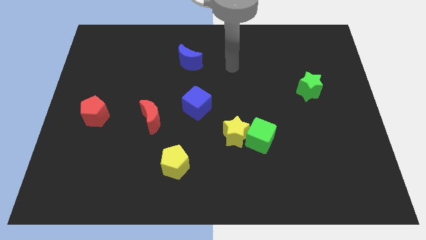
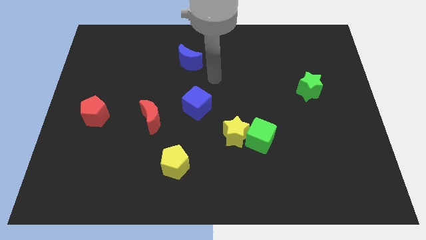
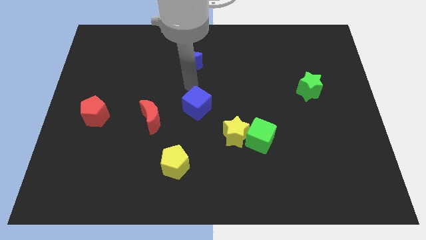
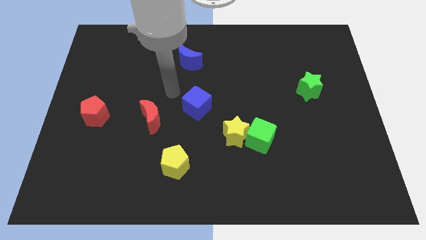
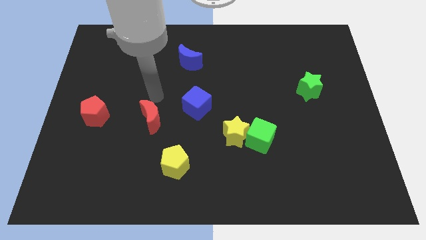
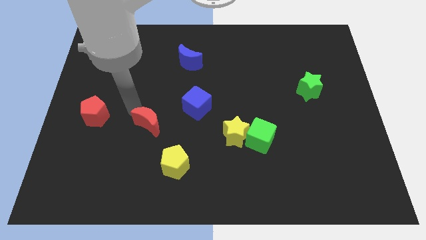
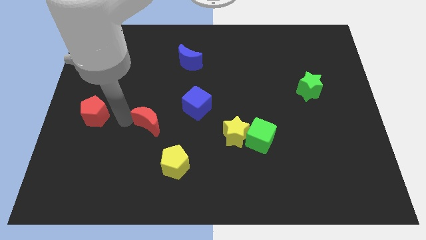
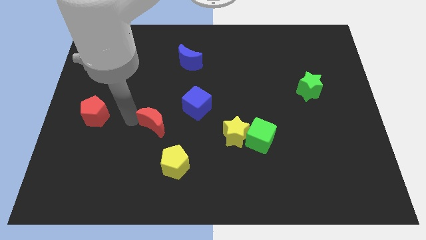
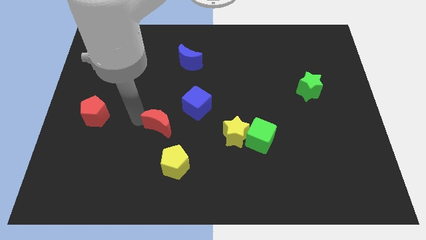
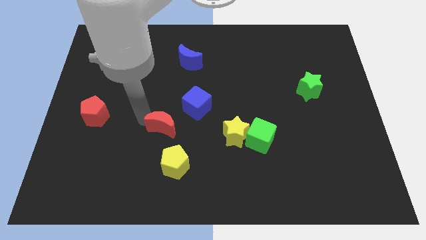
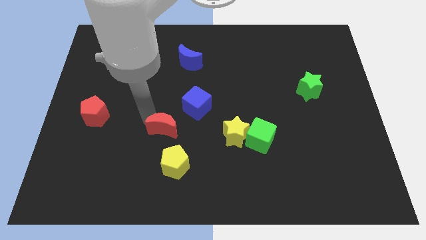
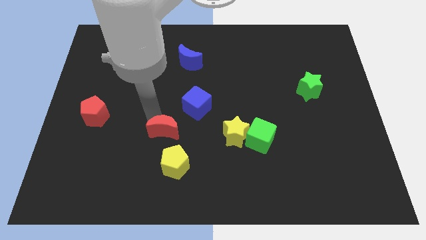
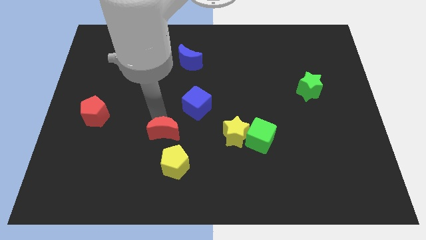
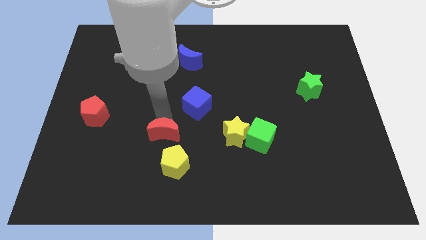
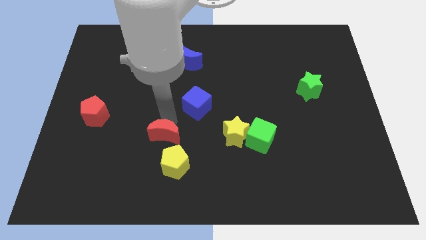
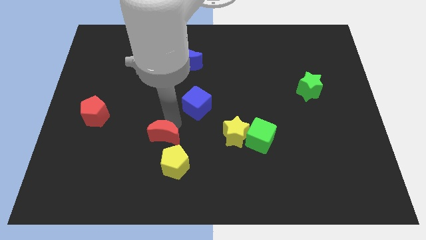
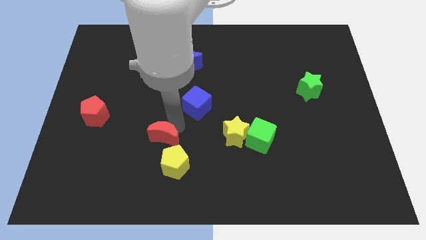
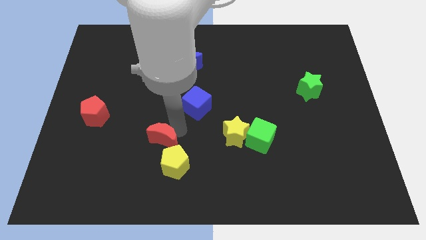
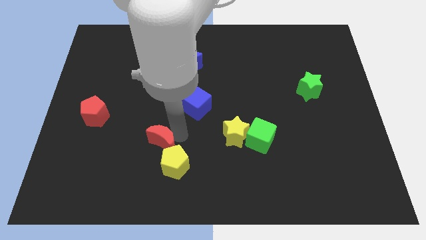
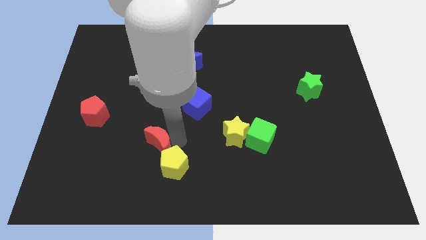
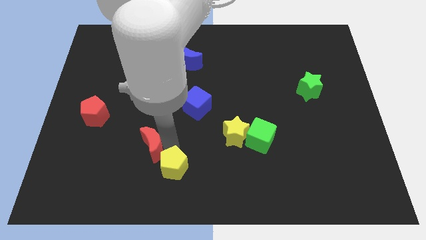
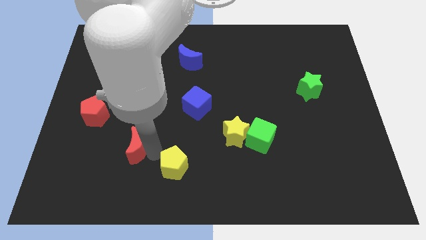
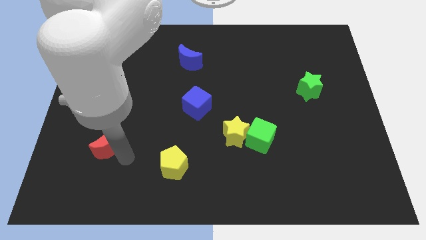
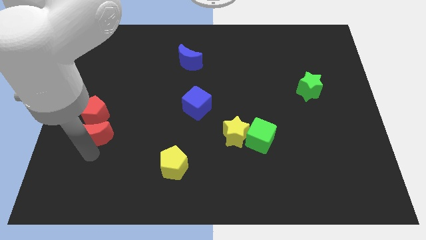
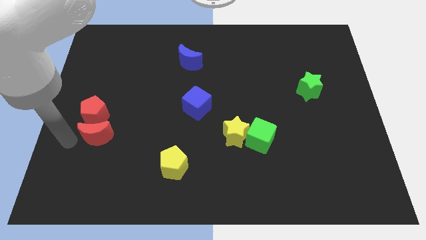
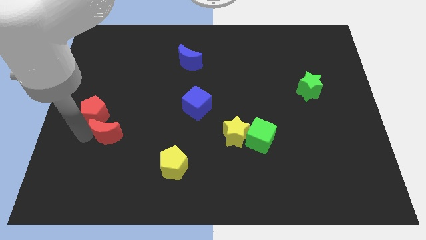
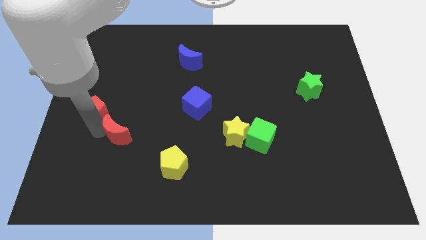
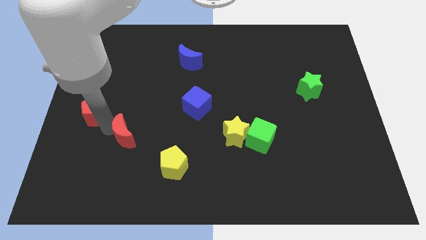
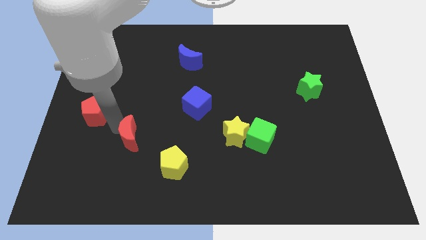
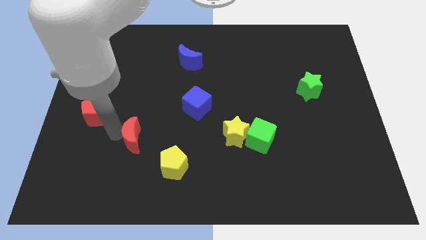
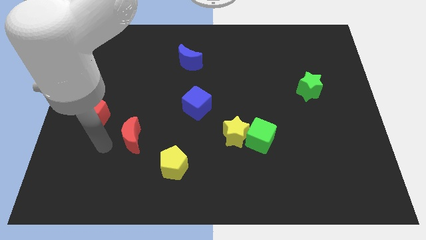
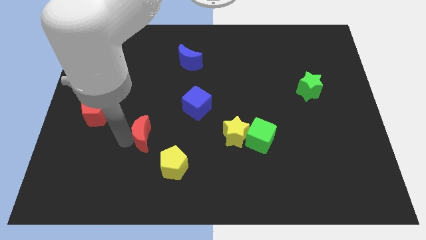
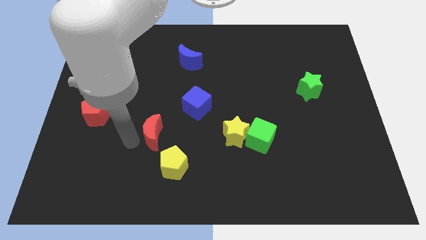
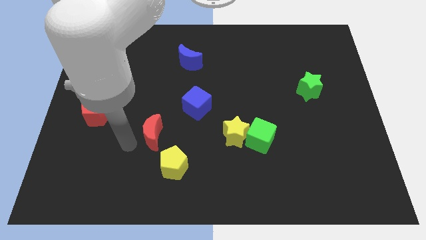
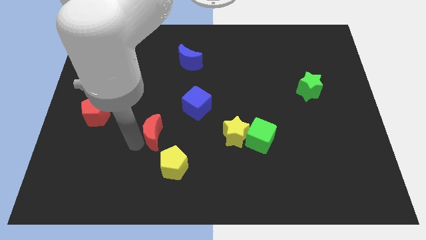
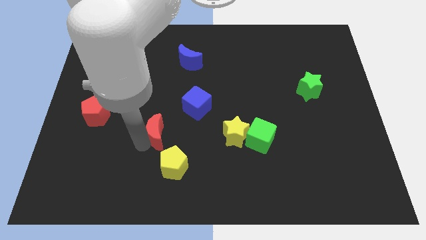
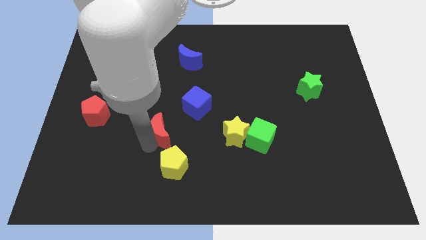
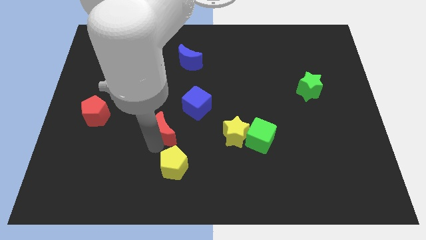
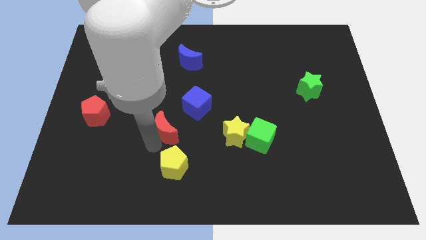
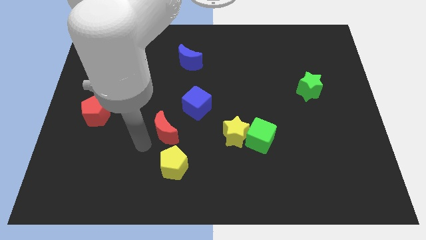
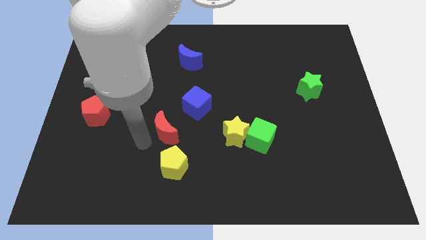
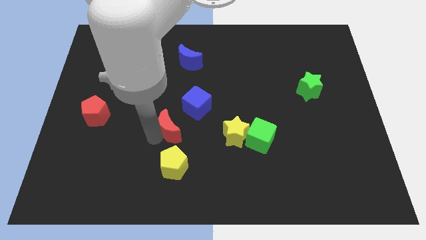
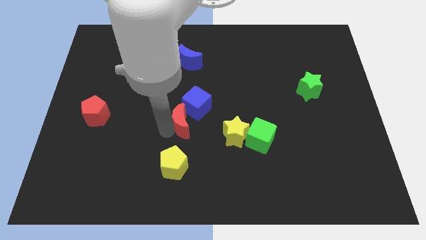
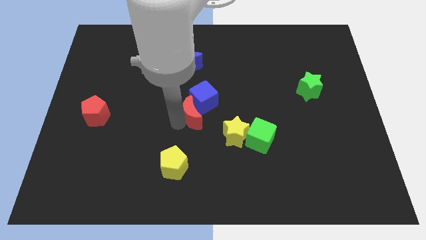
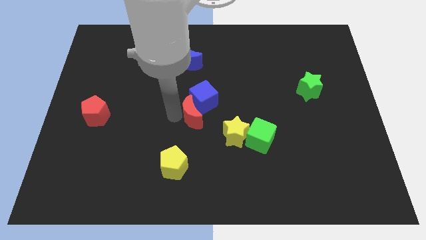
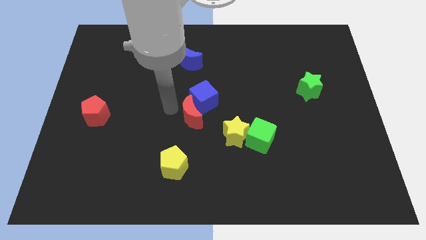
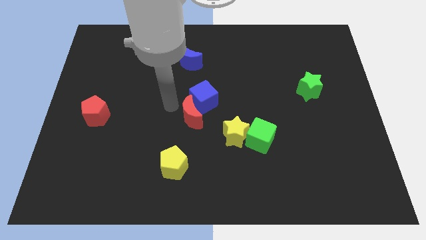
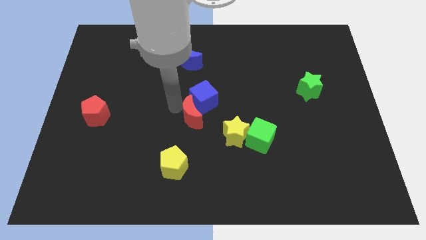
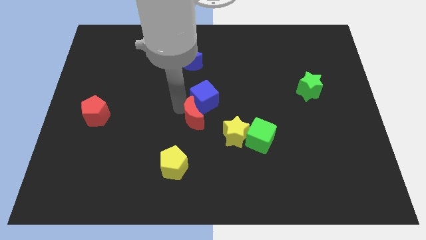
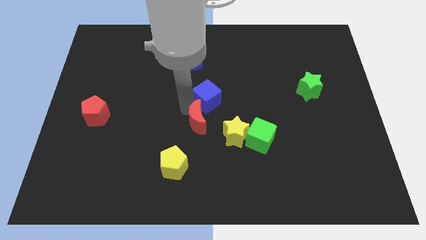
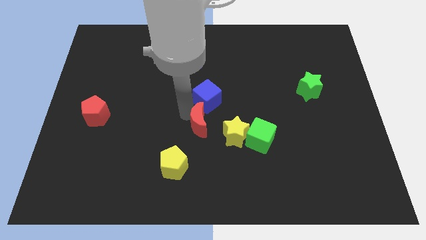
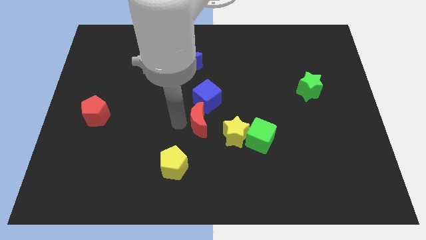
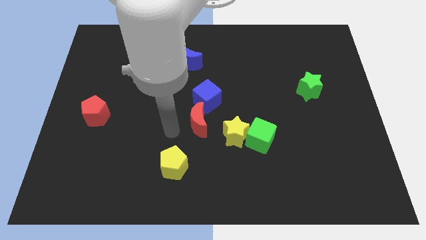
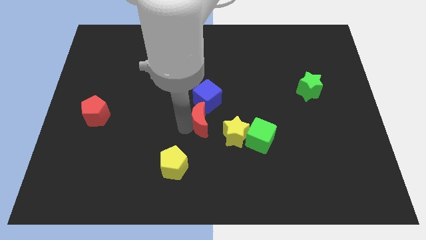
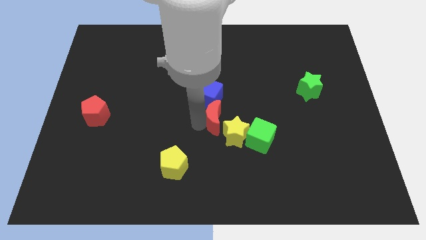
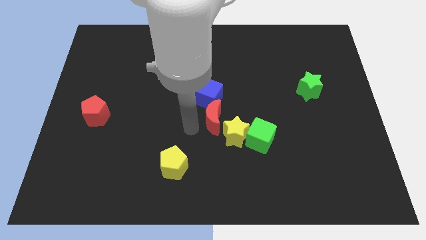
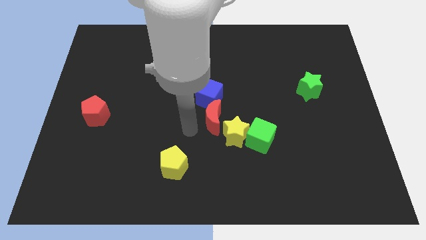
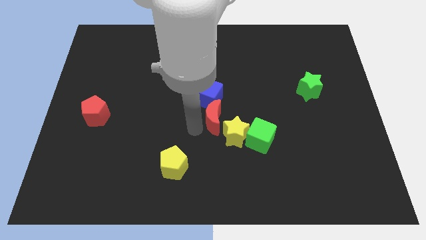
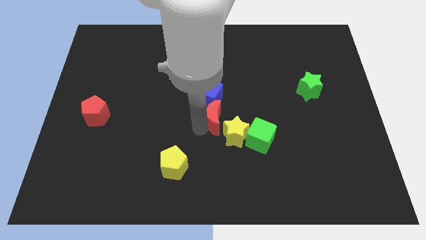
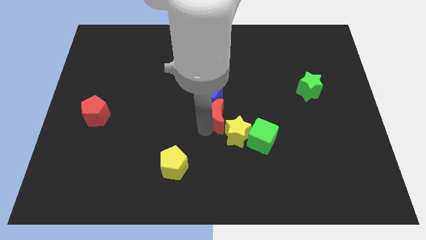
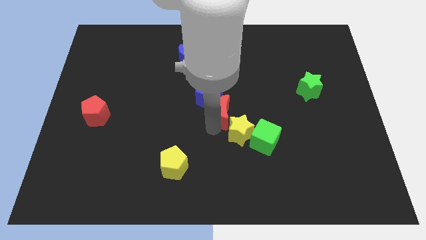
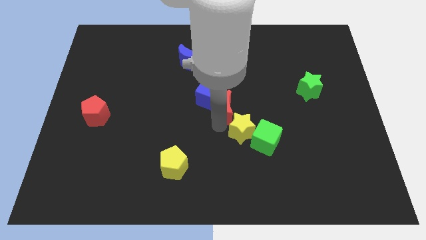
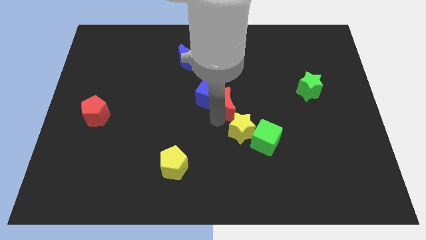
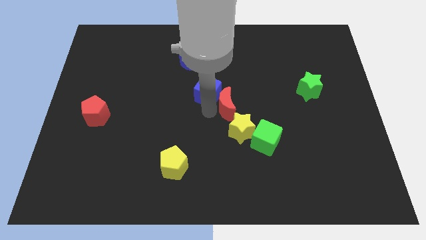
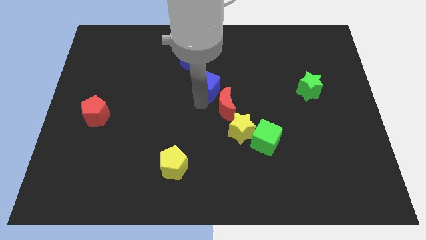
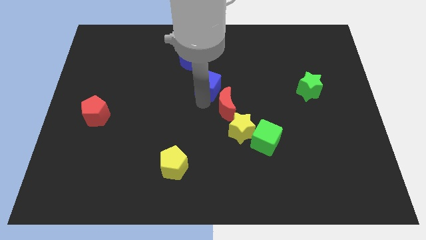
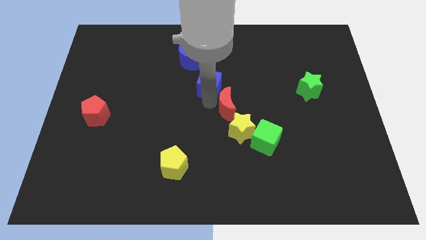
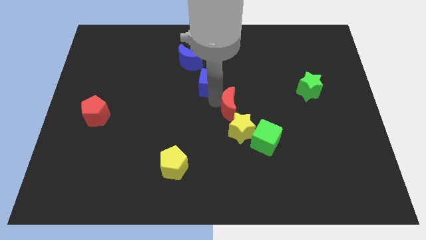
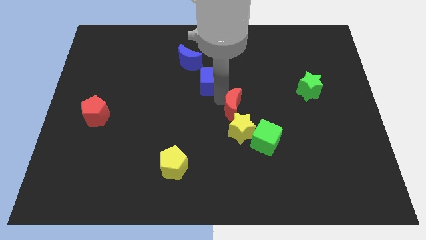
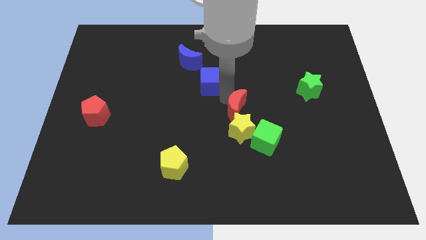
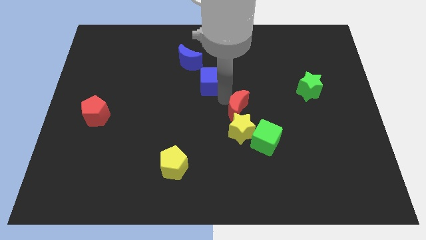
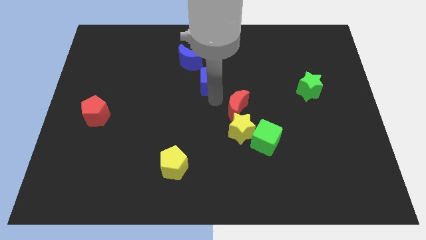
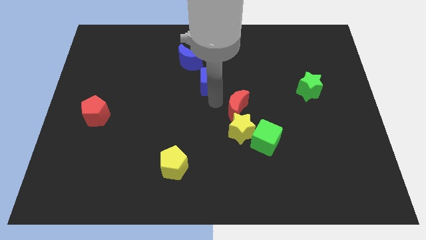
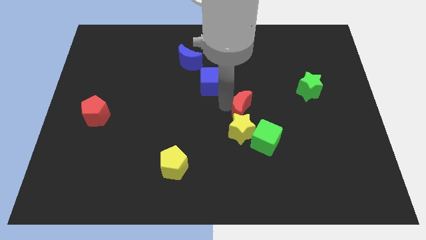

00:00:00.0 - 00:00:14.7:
slide the red moon right

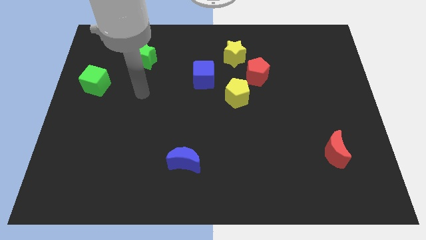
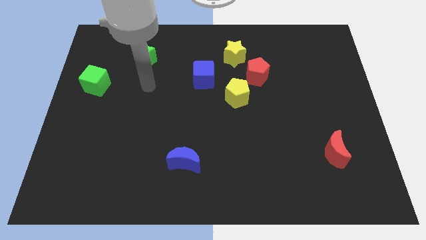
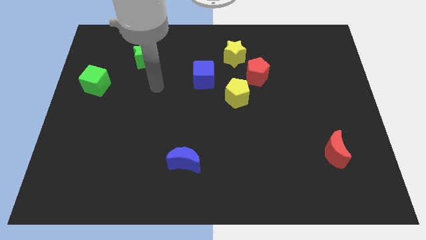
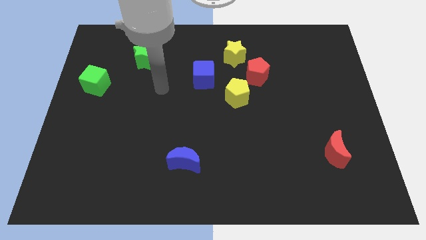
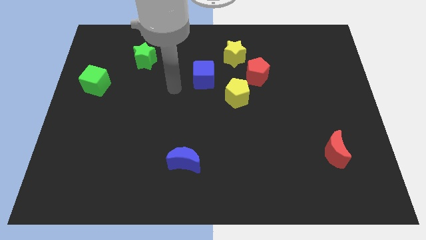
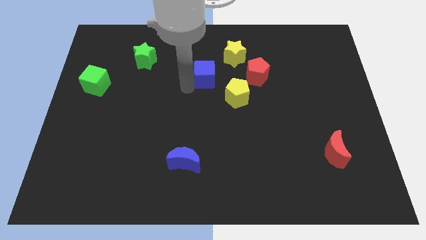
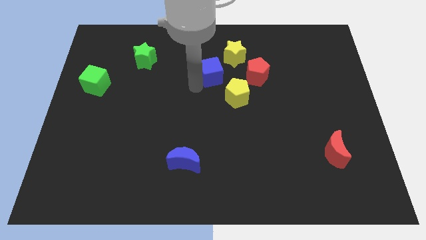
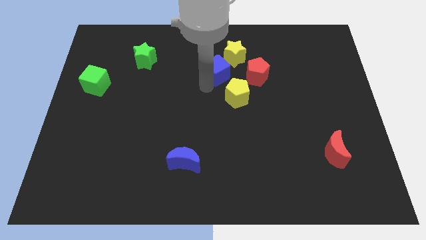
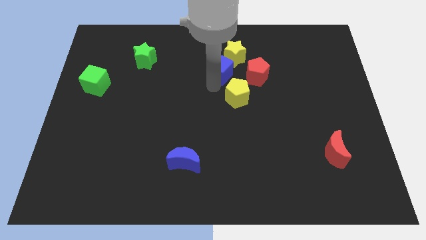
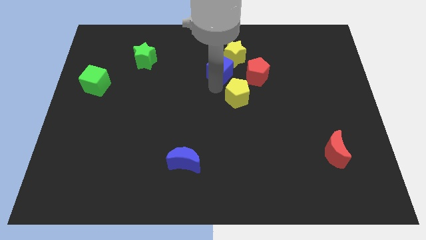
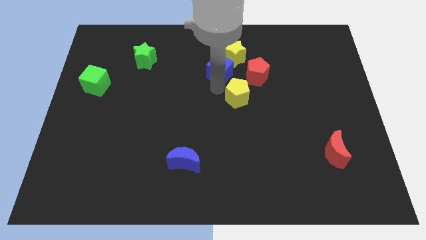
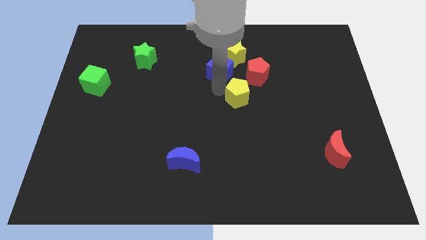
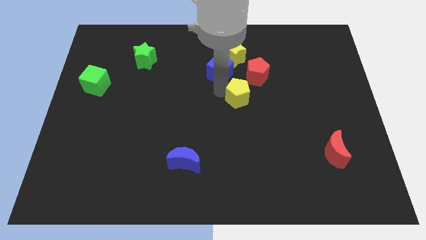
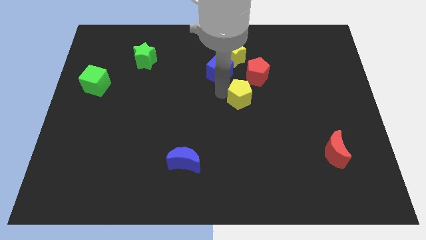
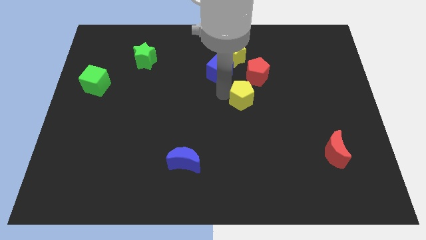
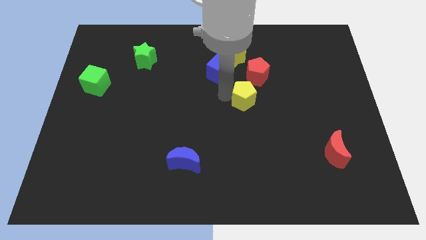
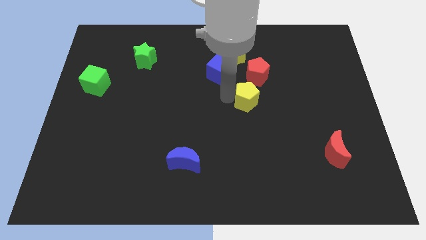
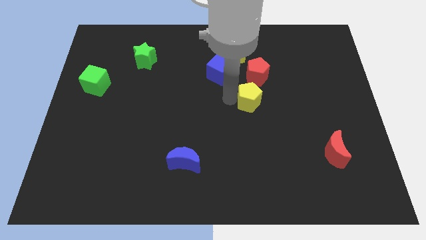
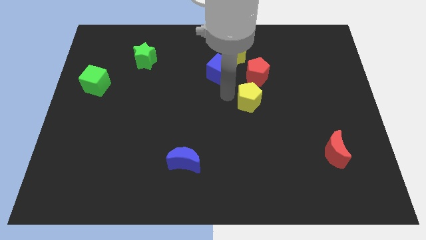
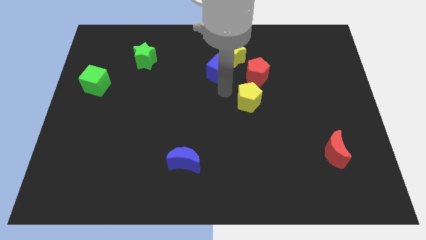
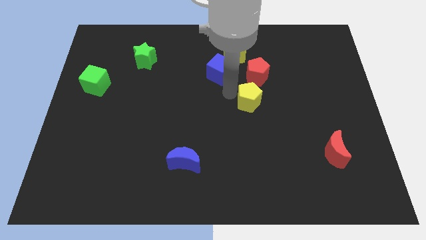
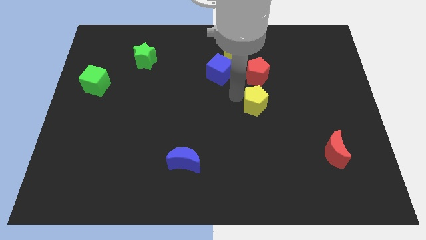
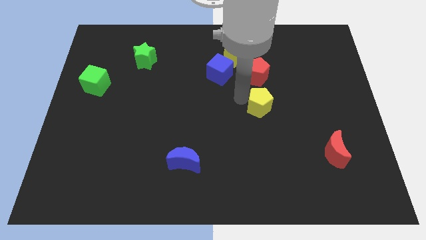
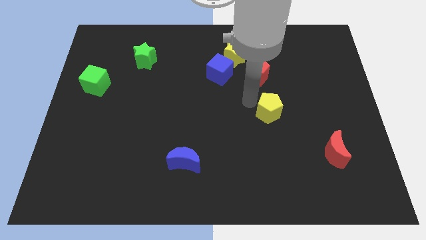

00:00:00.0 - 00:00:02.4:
slide the yellow pentagon down and to the right a little bit
